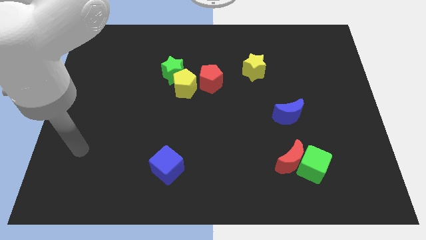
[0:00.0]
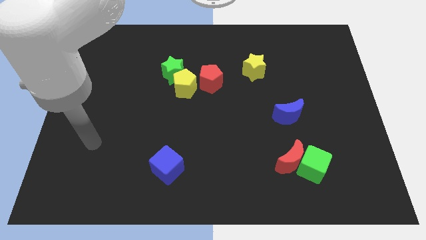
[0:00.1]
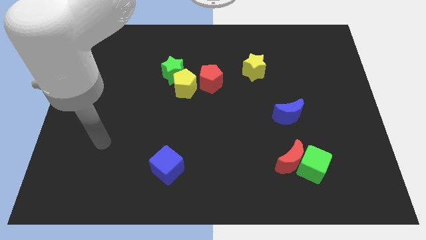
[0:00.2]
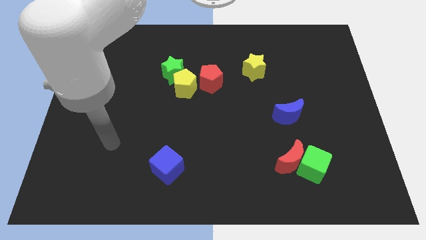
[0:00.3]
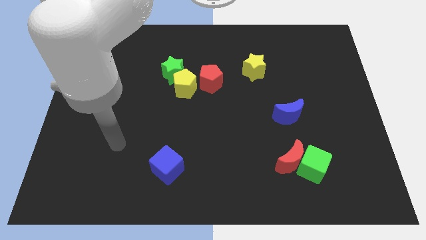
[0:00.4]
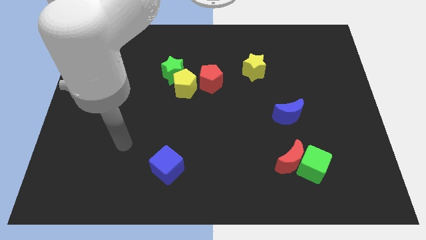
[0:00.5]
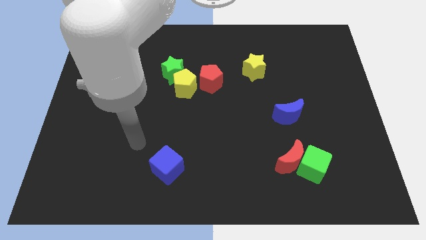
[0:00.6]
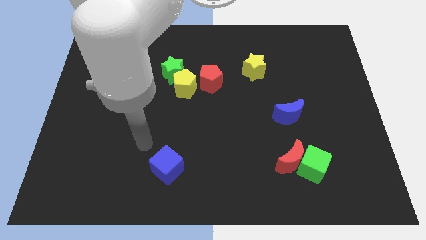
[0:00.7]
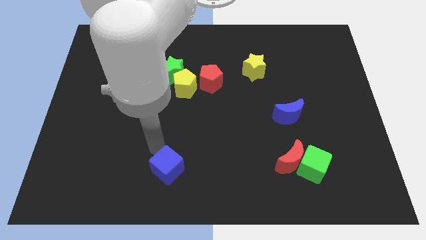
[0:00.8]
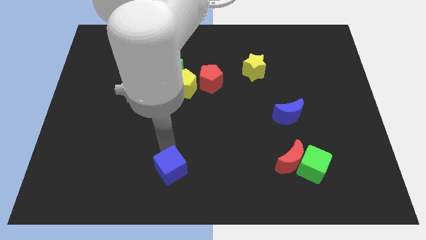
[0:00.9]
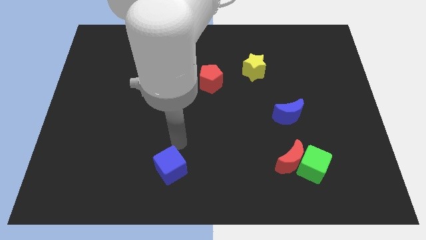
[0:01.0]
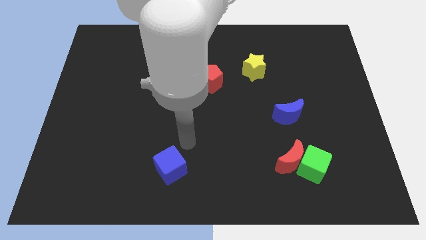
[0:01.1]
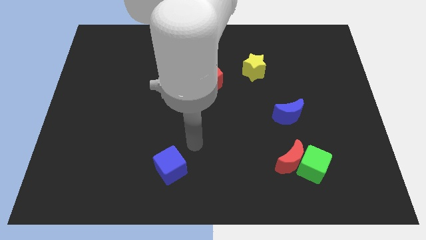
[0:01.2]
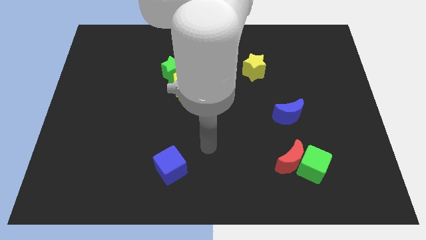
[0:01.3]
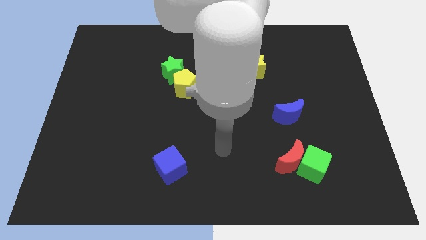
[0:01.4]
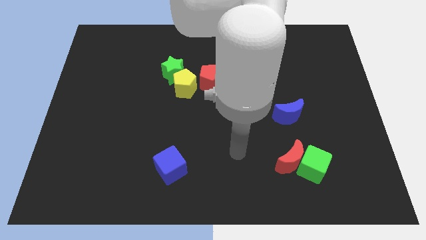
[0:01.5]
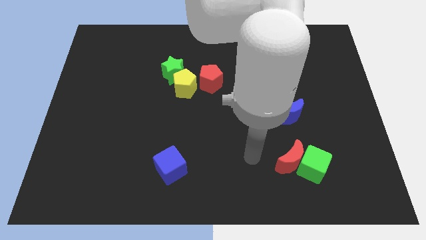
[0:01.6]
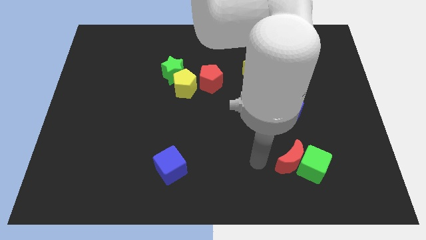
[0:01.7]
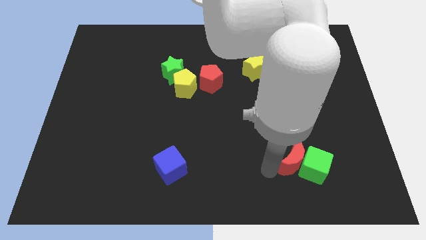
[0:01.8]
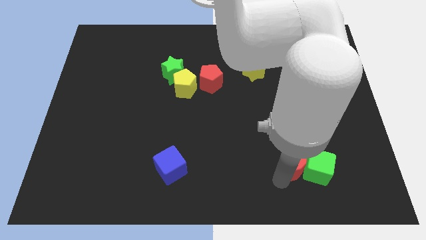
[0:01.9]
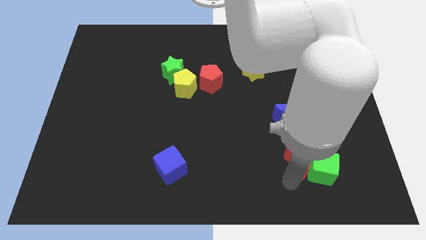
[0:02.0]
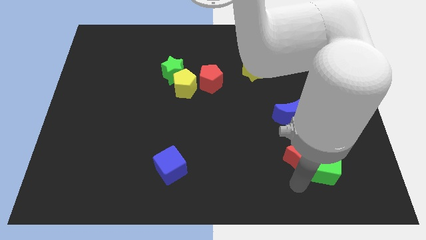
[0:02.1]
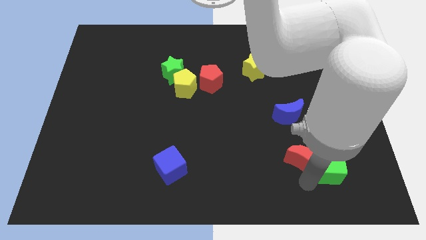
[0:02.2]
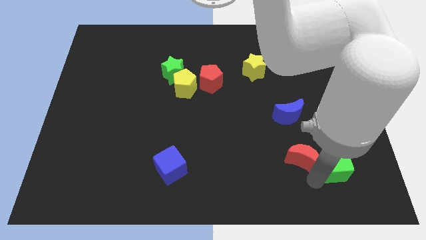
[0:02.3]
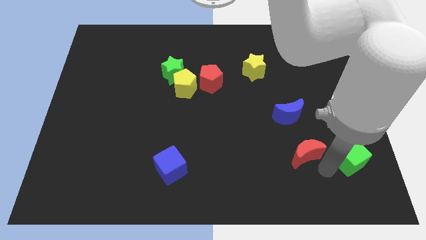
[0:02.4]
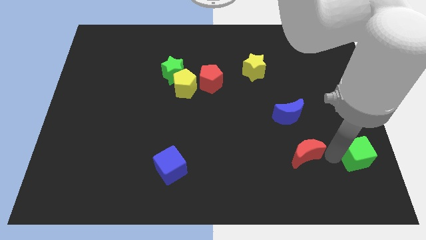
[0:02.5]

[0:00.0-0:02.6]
move the red moon away from the green cube

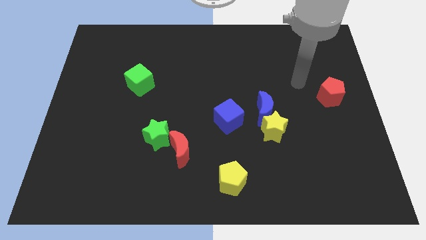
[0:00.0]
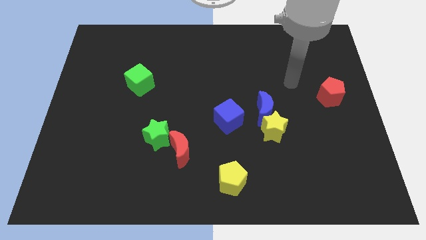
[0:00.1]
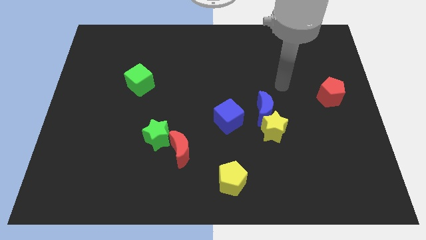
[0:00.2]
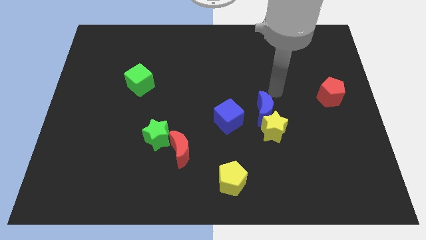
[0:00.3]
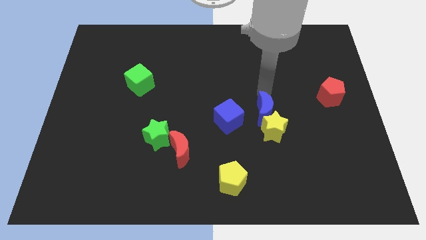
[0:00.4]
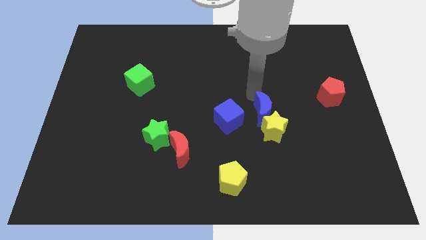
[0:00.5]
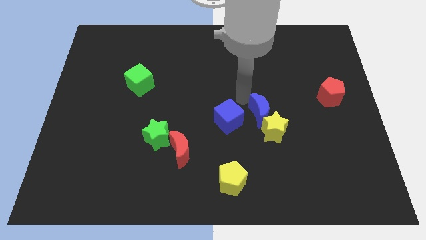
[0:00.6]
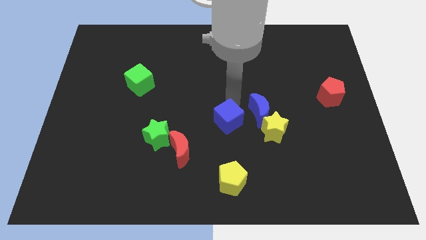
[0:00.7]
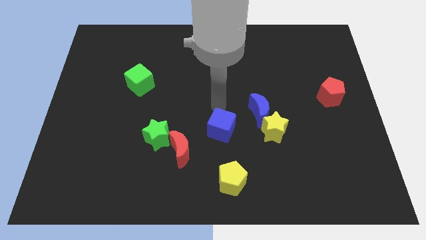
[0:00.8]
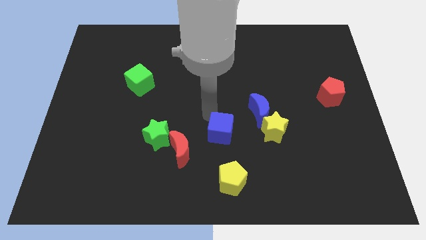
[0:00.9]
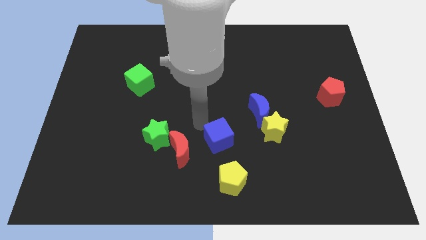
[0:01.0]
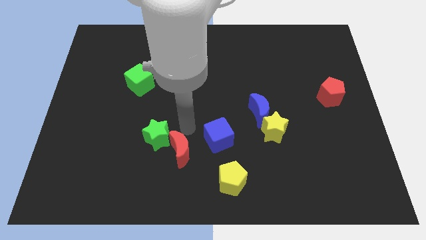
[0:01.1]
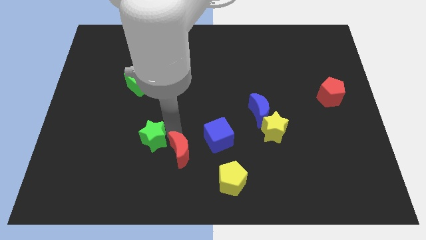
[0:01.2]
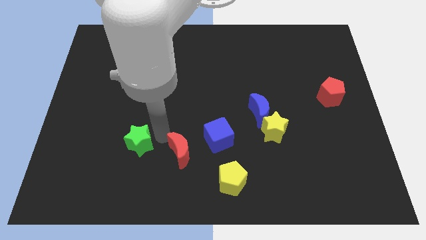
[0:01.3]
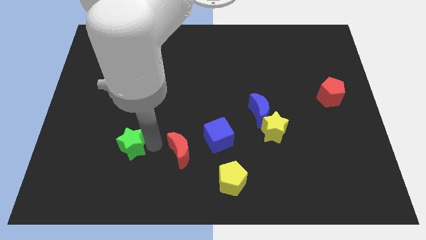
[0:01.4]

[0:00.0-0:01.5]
pull the red moon apart from the green star

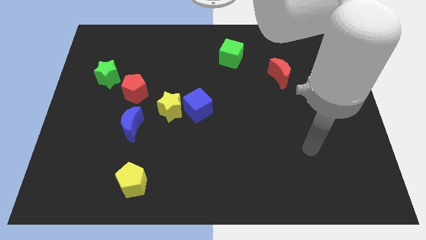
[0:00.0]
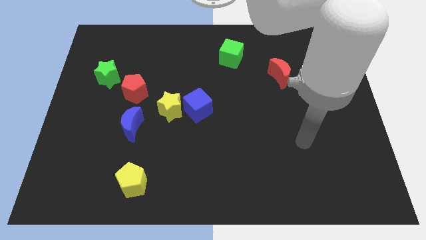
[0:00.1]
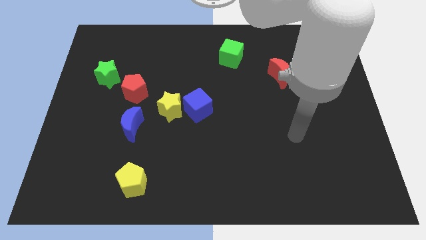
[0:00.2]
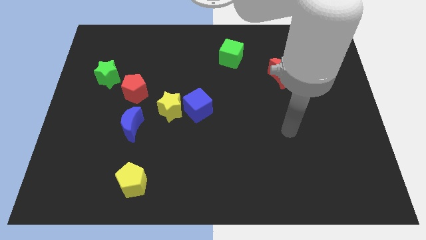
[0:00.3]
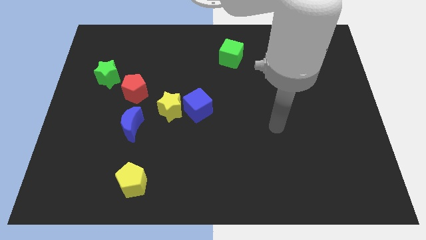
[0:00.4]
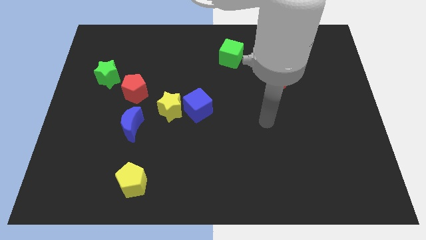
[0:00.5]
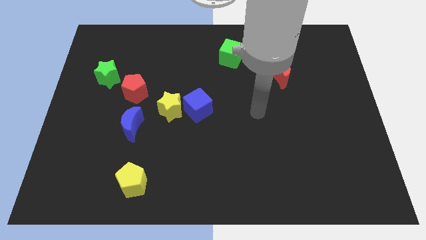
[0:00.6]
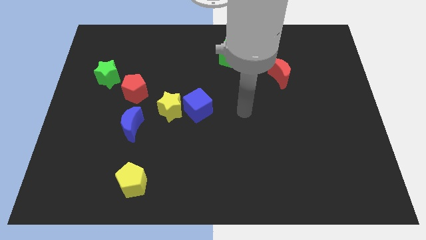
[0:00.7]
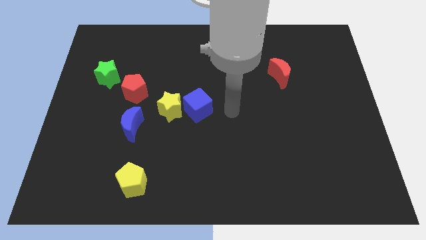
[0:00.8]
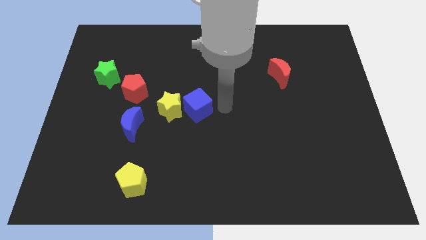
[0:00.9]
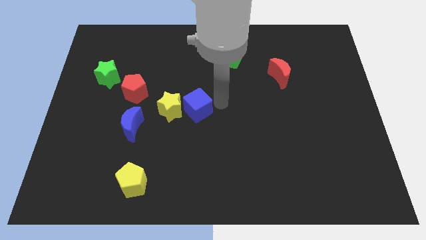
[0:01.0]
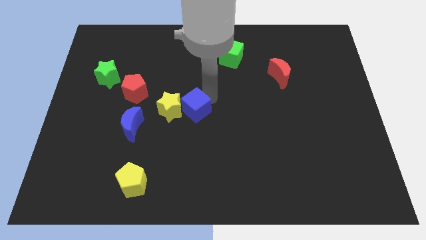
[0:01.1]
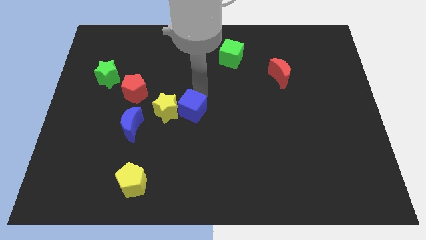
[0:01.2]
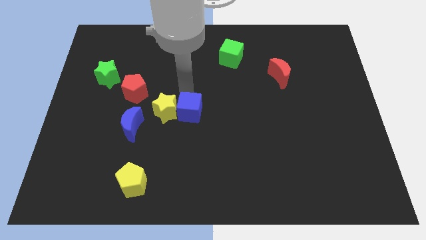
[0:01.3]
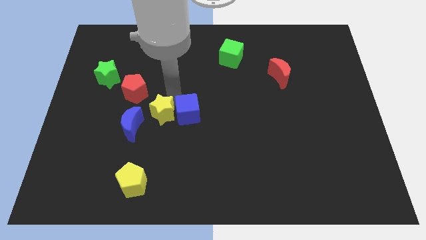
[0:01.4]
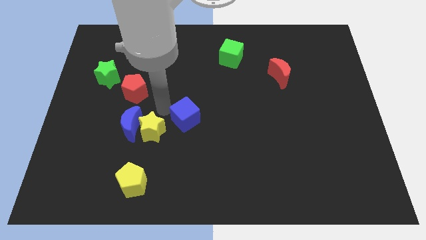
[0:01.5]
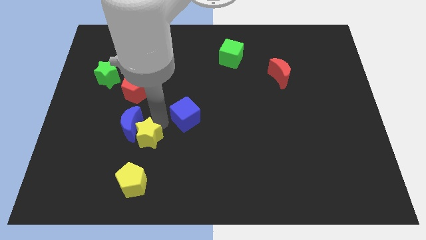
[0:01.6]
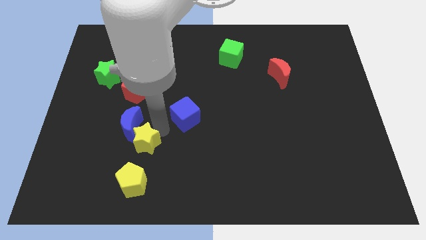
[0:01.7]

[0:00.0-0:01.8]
separate the blue cube from the yellow star

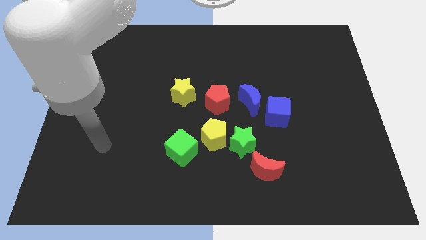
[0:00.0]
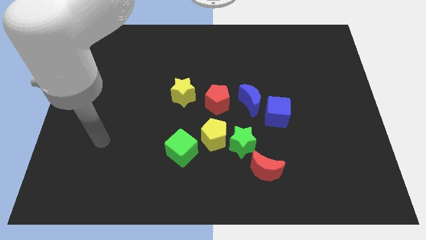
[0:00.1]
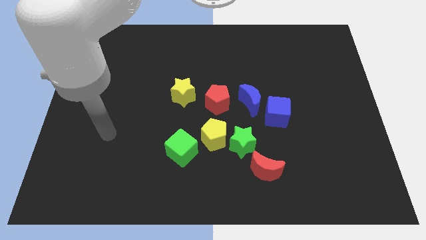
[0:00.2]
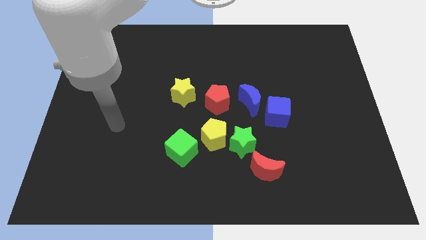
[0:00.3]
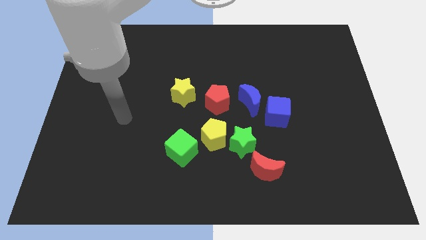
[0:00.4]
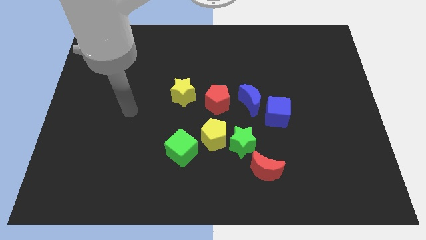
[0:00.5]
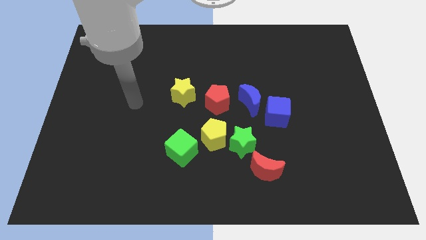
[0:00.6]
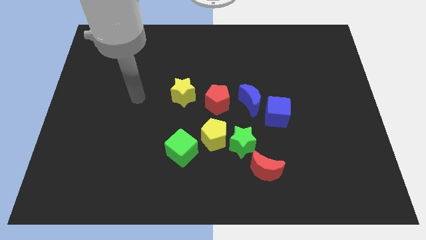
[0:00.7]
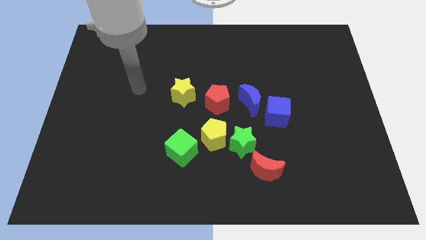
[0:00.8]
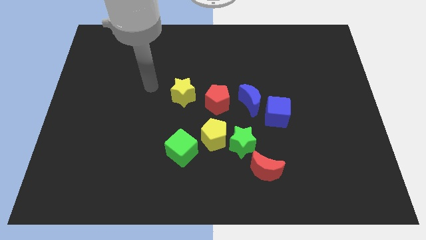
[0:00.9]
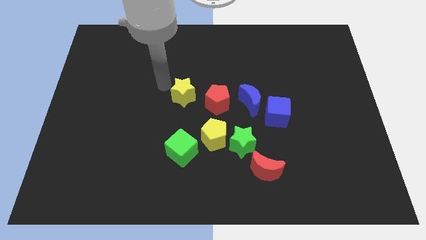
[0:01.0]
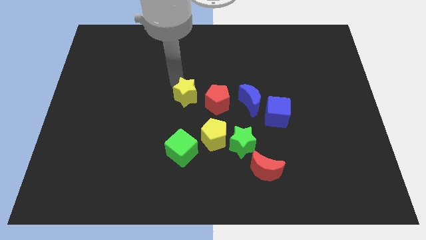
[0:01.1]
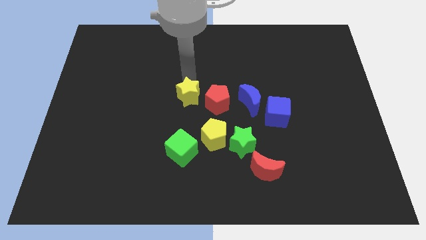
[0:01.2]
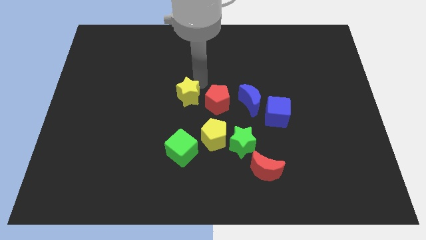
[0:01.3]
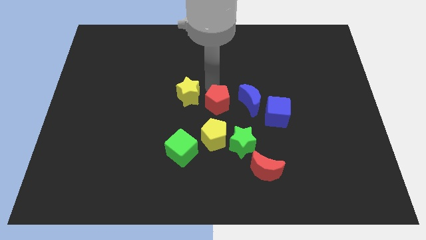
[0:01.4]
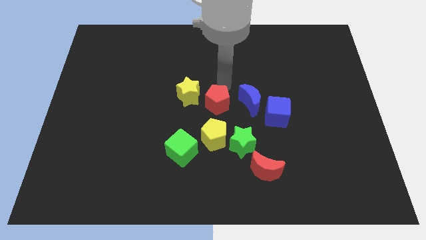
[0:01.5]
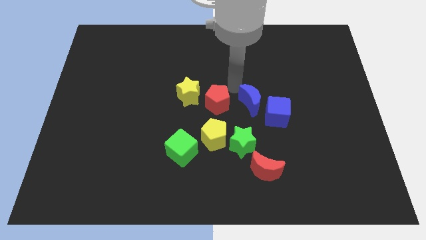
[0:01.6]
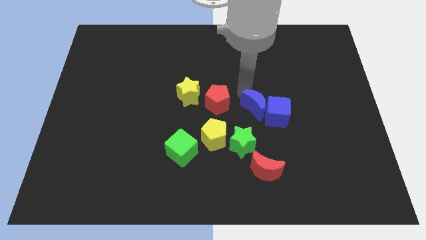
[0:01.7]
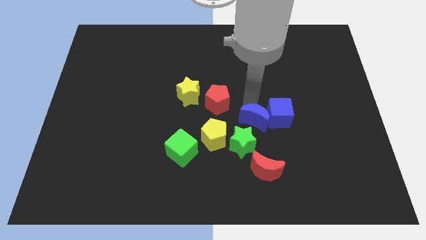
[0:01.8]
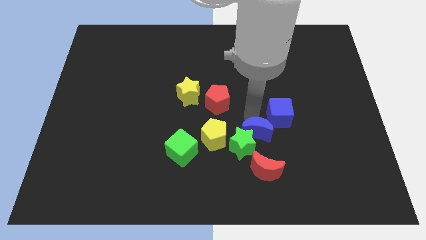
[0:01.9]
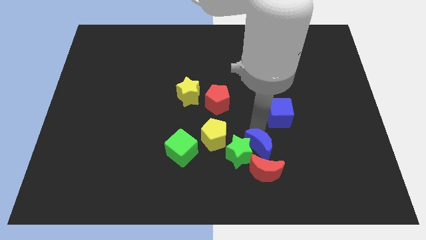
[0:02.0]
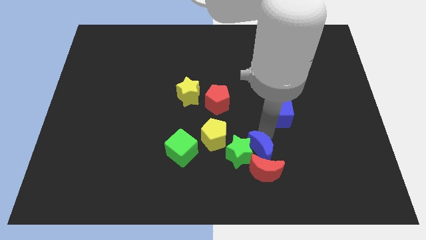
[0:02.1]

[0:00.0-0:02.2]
separate the blue cube from the blue moon

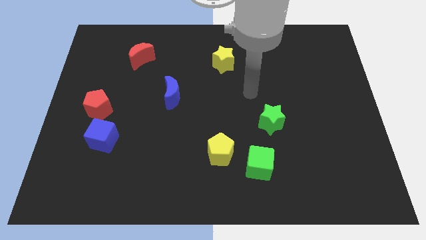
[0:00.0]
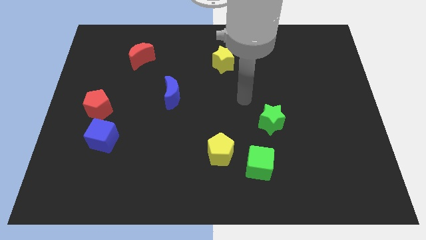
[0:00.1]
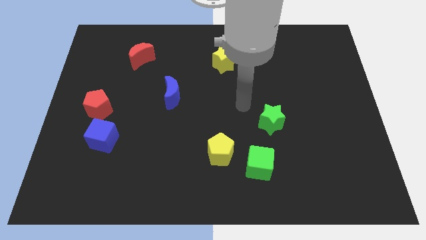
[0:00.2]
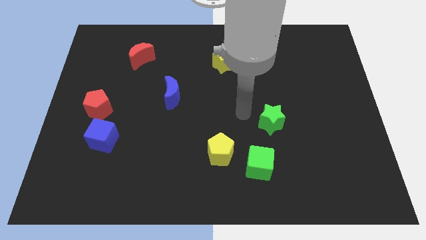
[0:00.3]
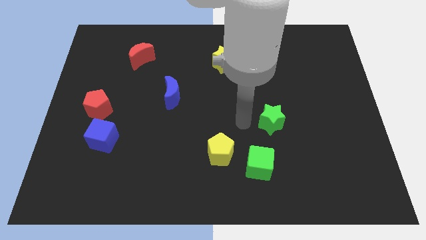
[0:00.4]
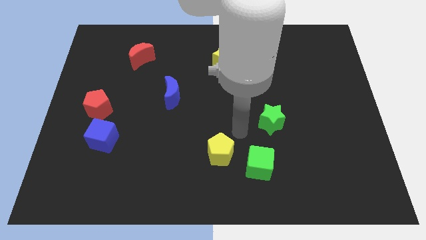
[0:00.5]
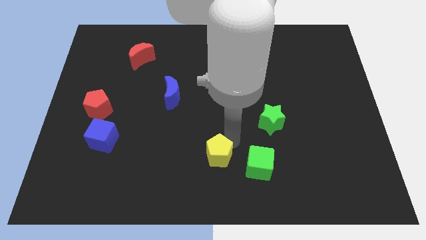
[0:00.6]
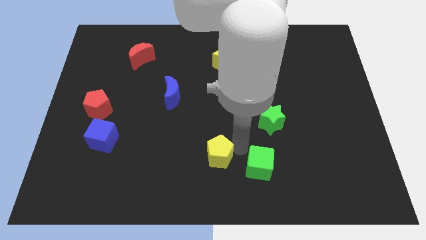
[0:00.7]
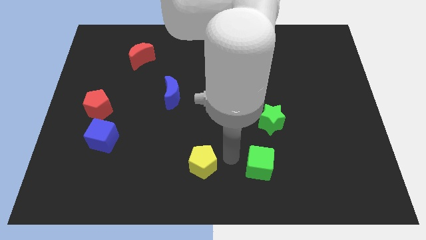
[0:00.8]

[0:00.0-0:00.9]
separate the green cube from the yellow pentagon

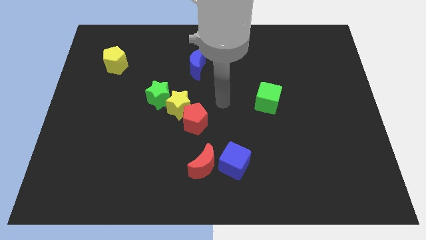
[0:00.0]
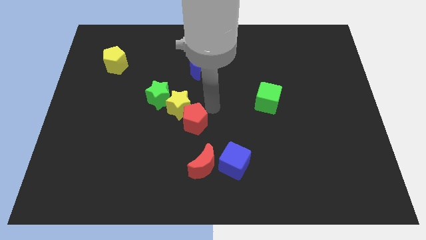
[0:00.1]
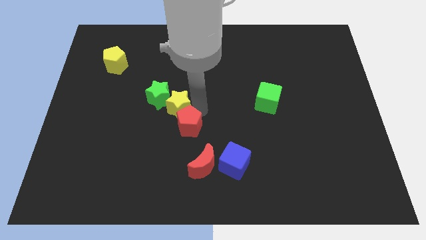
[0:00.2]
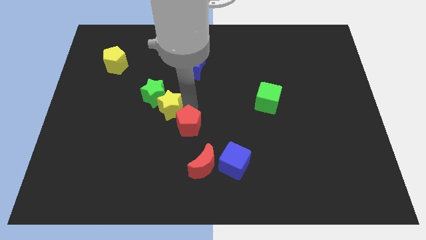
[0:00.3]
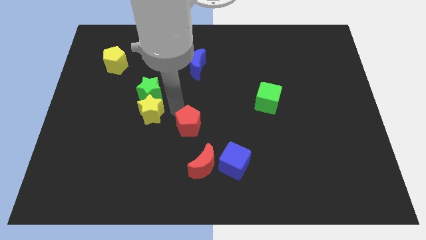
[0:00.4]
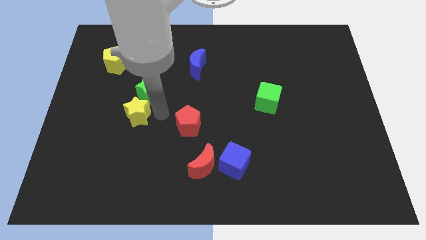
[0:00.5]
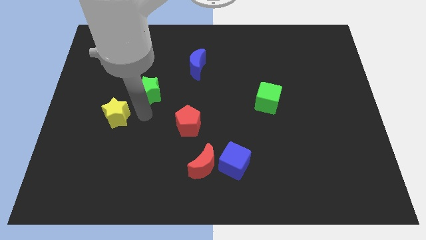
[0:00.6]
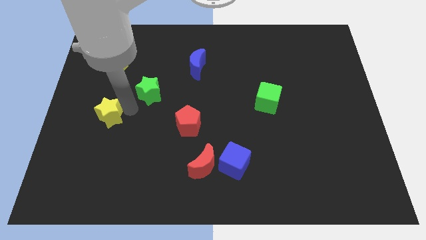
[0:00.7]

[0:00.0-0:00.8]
separate the green star from the yellow star
